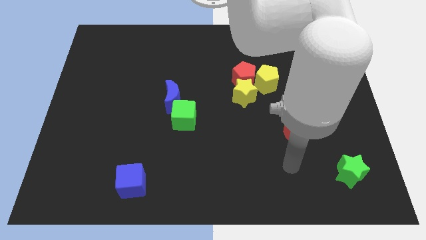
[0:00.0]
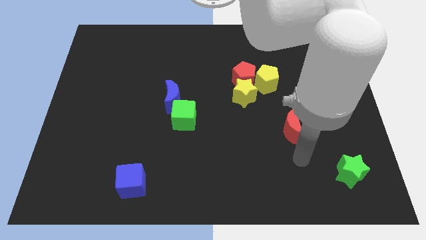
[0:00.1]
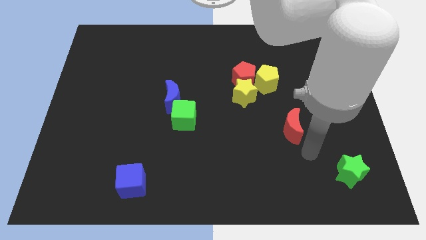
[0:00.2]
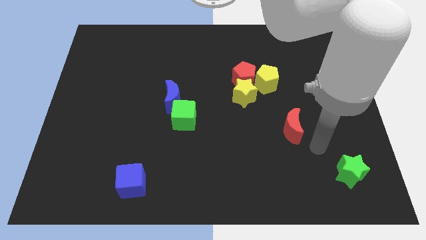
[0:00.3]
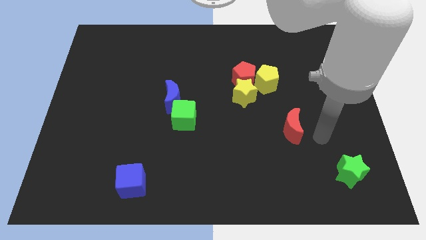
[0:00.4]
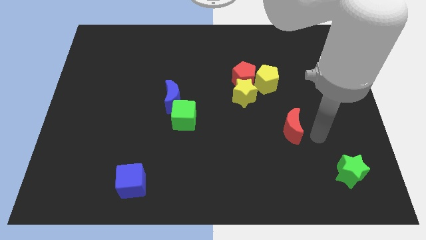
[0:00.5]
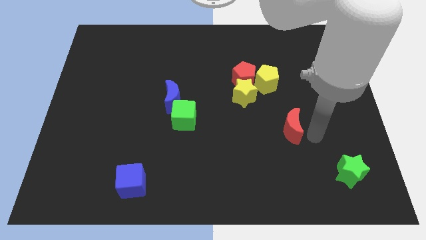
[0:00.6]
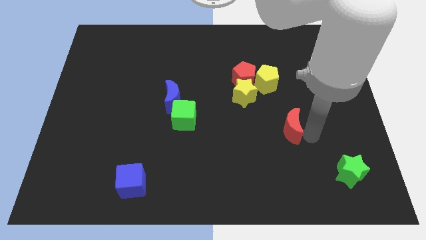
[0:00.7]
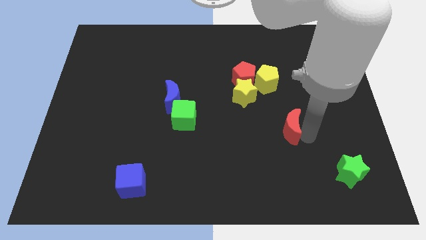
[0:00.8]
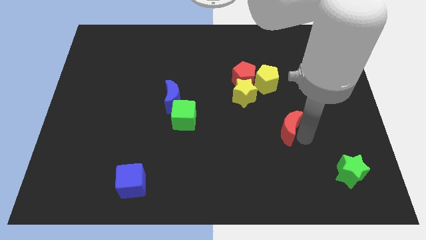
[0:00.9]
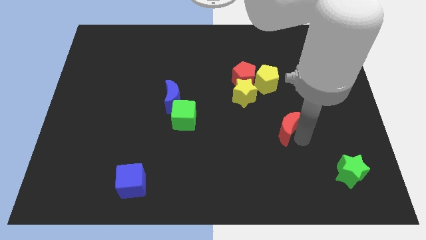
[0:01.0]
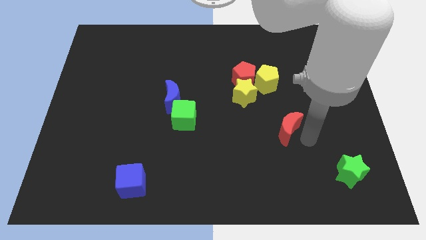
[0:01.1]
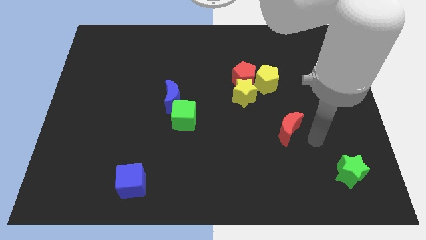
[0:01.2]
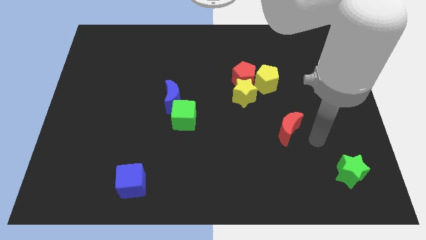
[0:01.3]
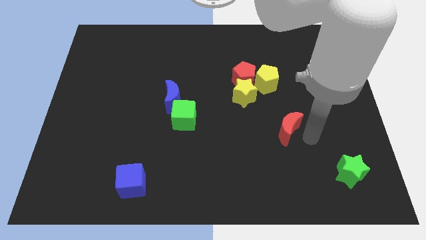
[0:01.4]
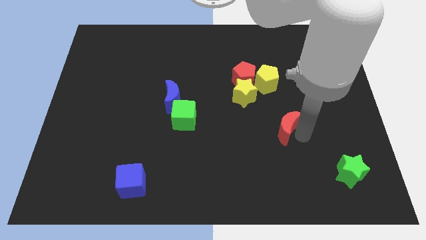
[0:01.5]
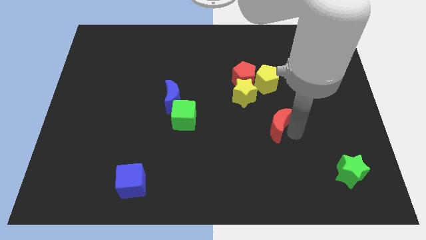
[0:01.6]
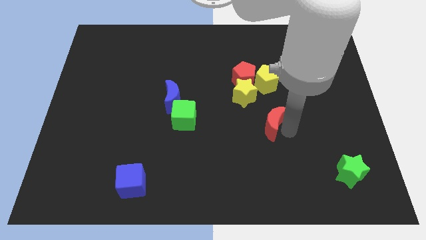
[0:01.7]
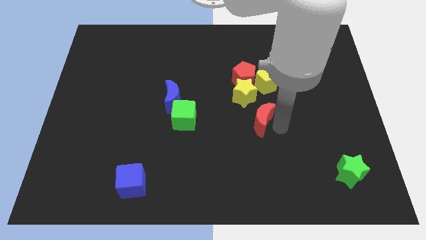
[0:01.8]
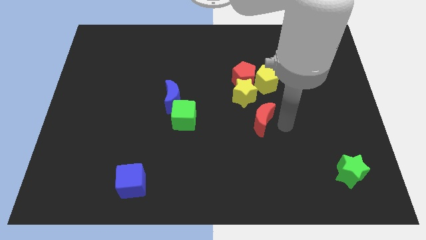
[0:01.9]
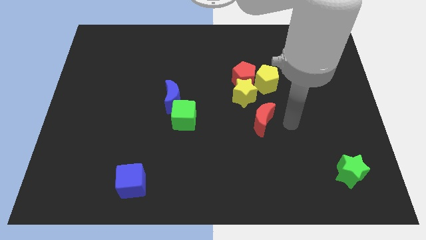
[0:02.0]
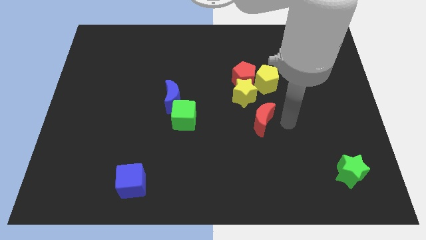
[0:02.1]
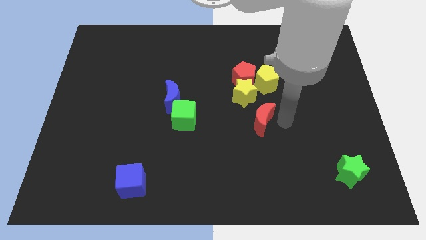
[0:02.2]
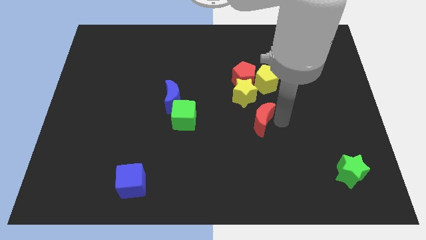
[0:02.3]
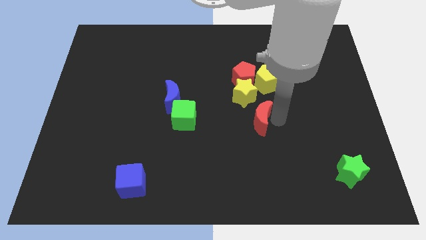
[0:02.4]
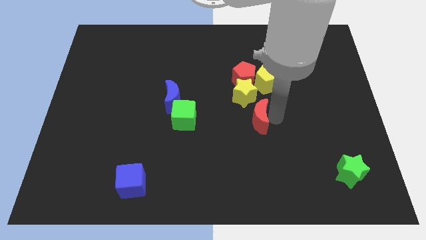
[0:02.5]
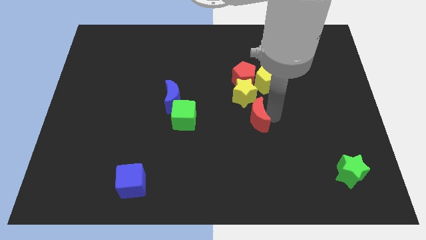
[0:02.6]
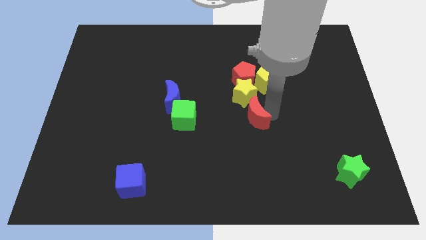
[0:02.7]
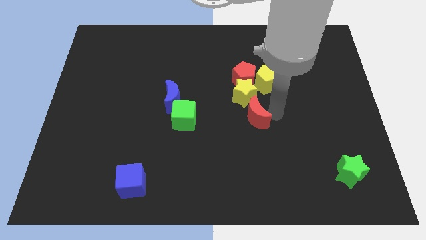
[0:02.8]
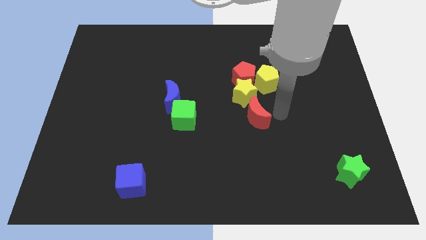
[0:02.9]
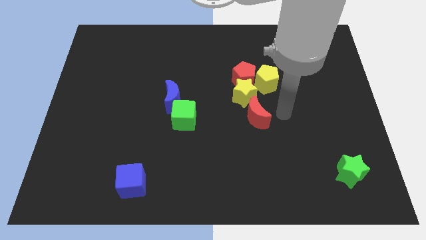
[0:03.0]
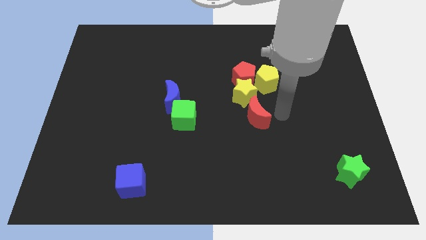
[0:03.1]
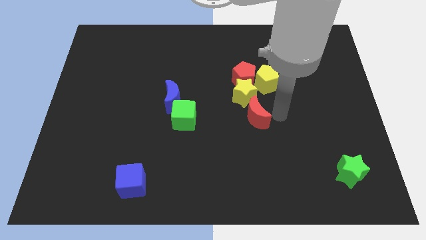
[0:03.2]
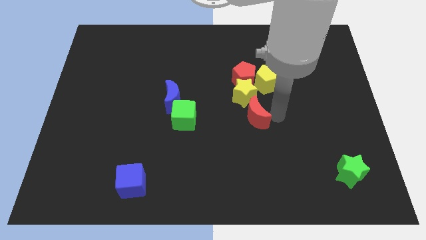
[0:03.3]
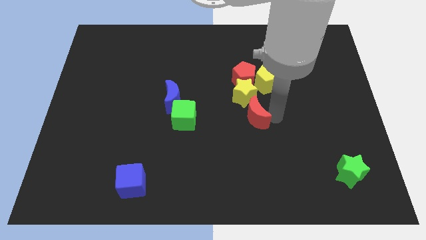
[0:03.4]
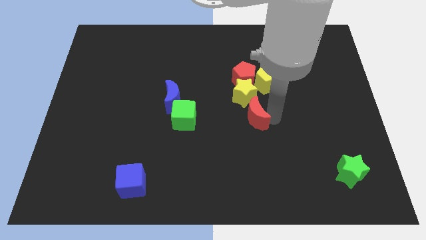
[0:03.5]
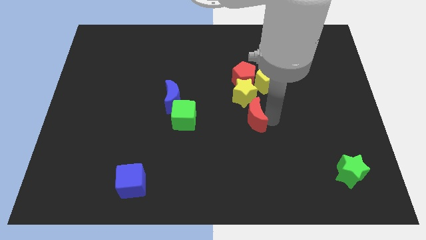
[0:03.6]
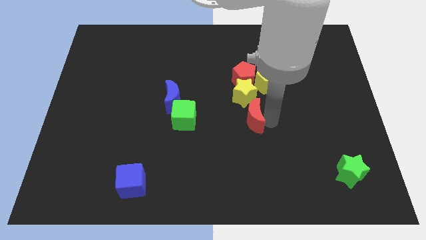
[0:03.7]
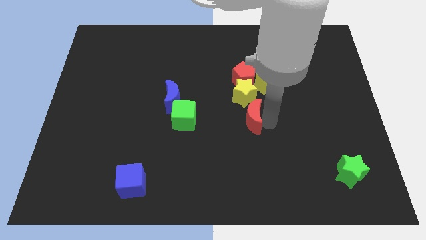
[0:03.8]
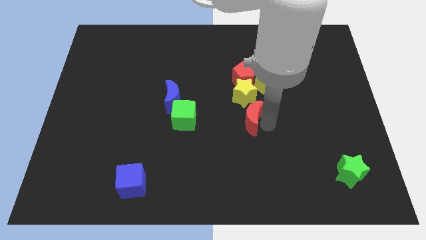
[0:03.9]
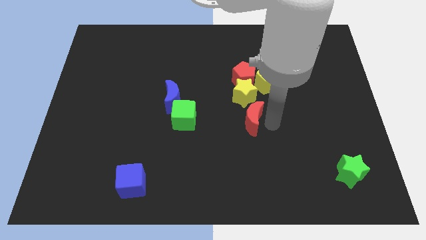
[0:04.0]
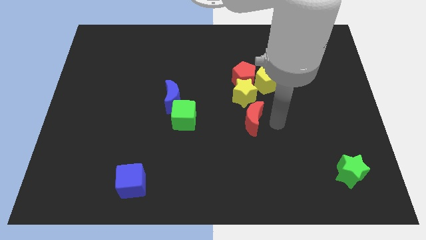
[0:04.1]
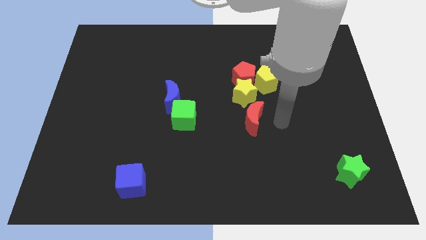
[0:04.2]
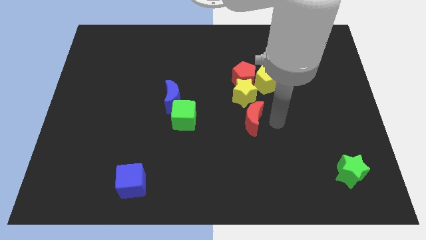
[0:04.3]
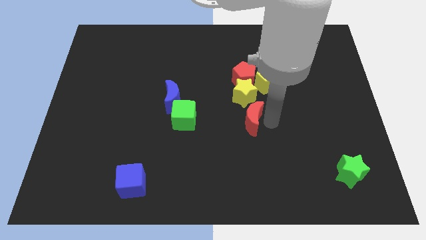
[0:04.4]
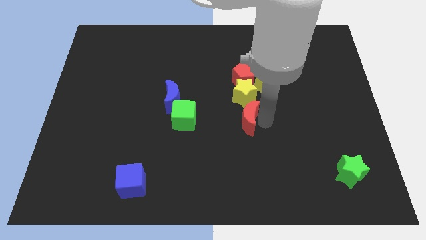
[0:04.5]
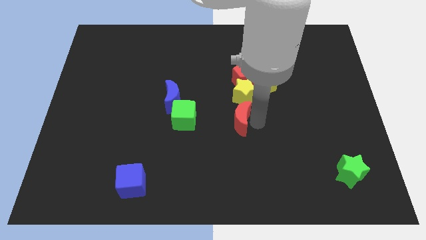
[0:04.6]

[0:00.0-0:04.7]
push the red moon diagonally down and to the left of the yellow star

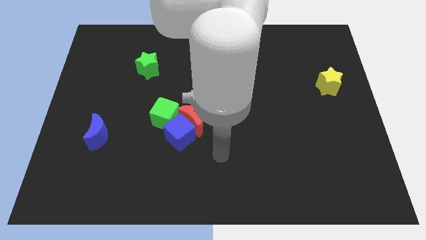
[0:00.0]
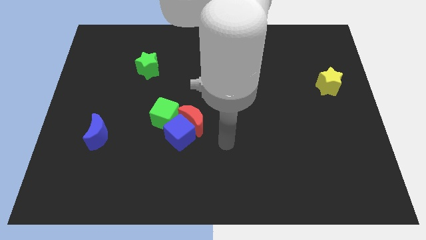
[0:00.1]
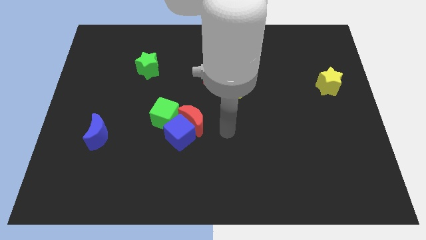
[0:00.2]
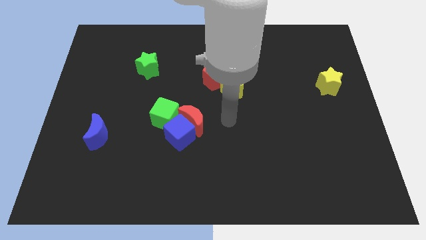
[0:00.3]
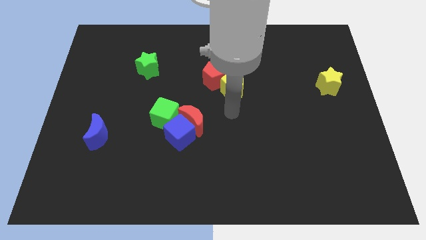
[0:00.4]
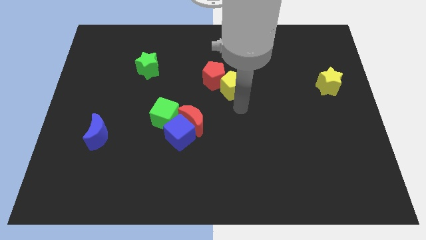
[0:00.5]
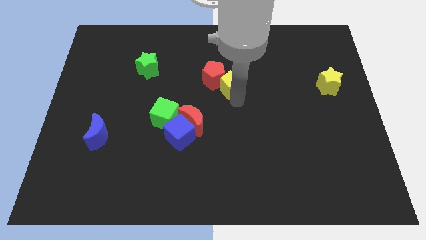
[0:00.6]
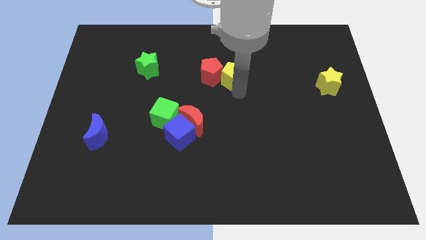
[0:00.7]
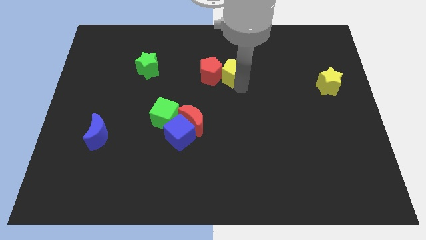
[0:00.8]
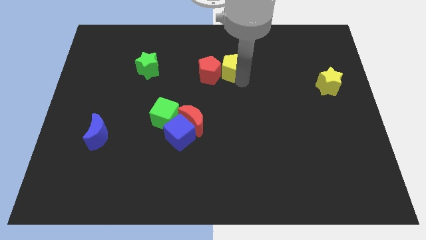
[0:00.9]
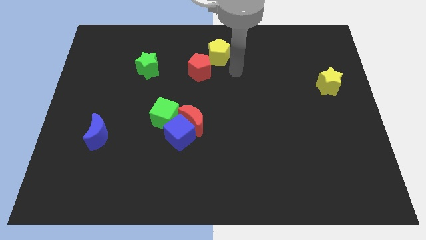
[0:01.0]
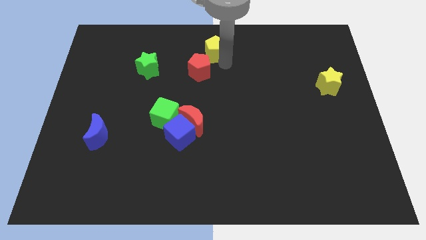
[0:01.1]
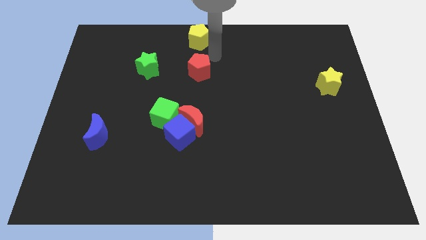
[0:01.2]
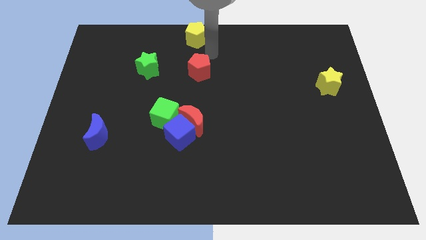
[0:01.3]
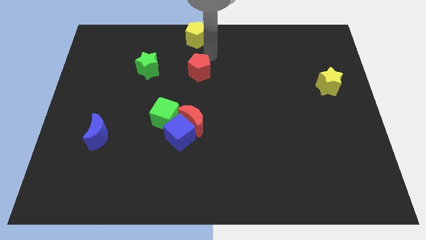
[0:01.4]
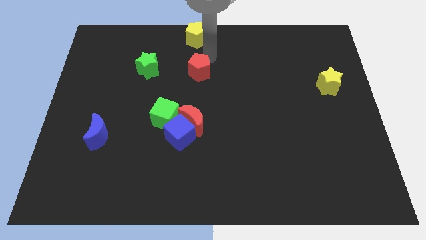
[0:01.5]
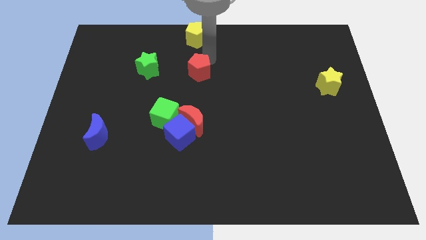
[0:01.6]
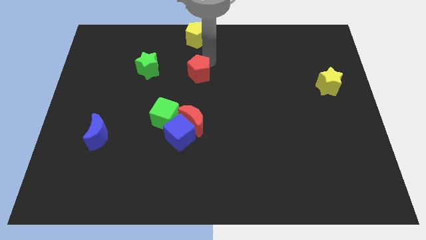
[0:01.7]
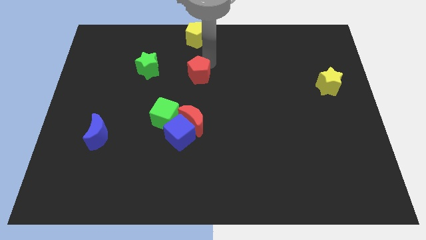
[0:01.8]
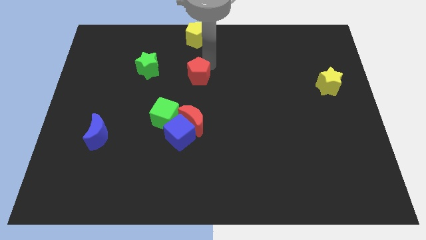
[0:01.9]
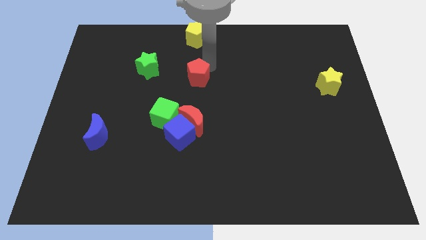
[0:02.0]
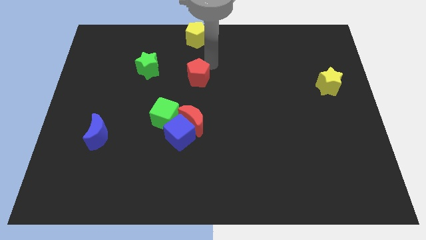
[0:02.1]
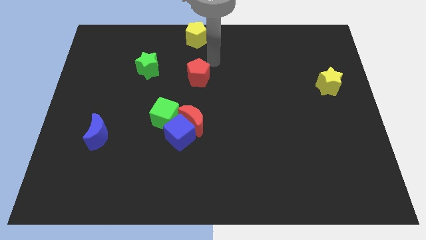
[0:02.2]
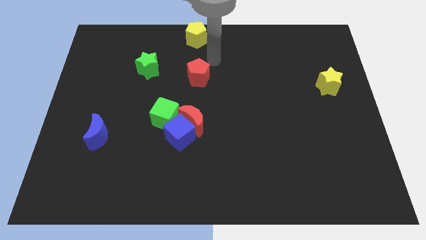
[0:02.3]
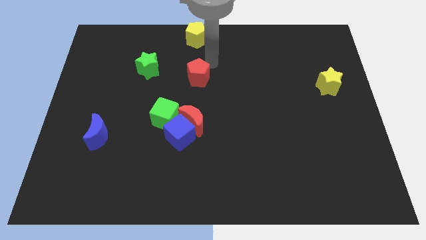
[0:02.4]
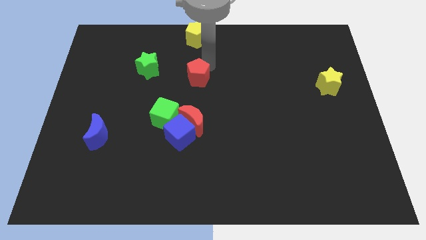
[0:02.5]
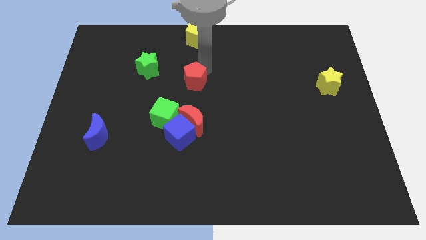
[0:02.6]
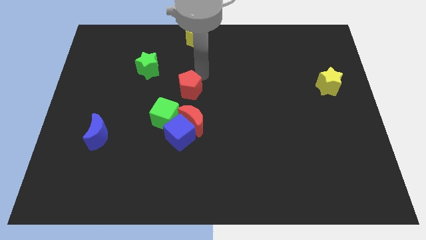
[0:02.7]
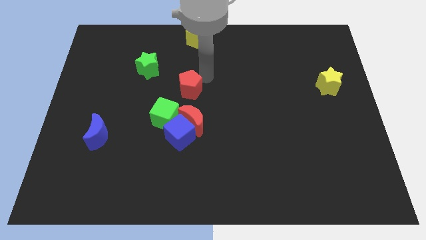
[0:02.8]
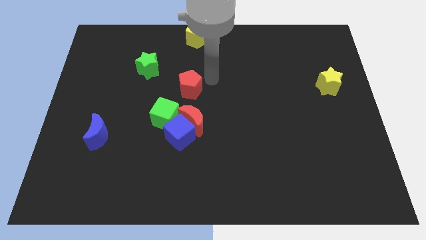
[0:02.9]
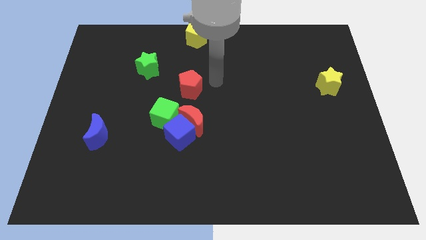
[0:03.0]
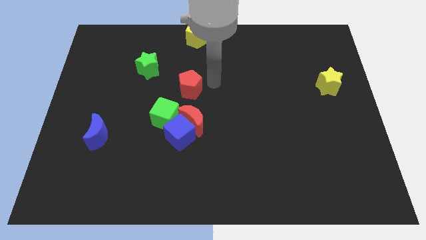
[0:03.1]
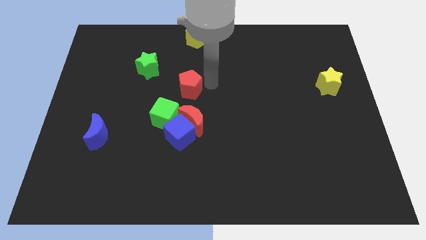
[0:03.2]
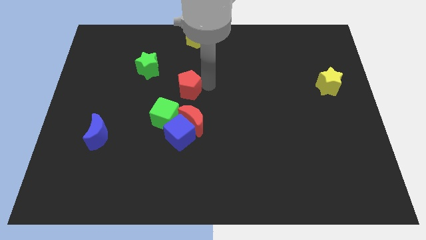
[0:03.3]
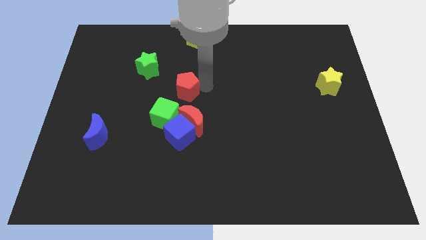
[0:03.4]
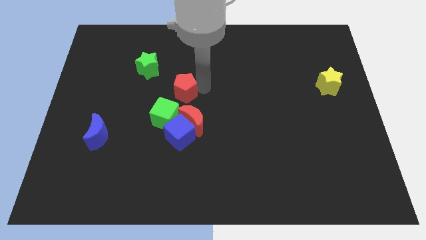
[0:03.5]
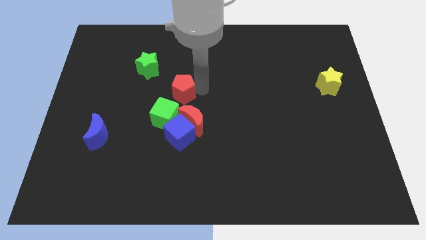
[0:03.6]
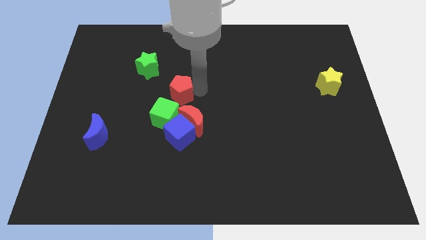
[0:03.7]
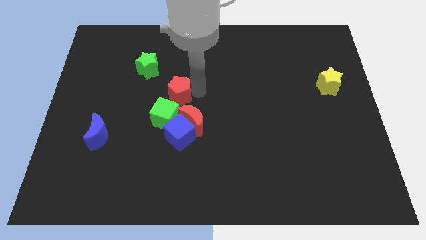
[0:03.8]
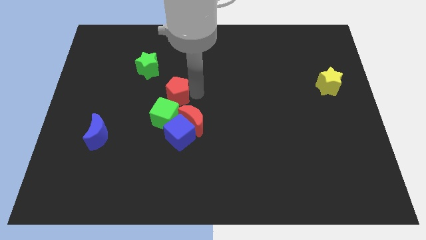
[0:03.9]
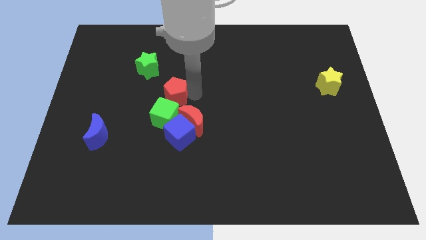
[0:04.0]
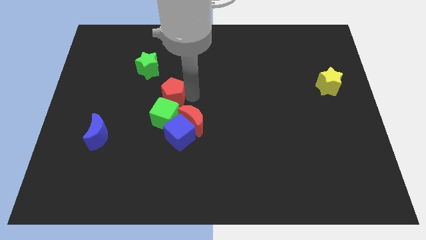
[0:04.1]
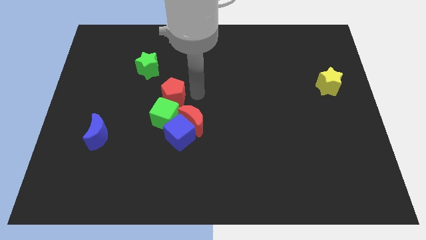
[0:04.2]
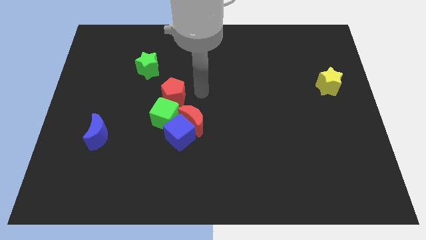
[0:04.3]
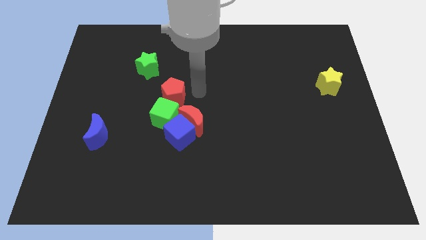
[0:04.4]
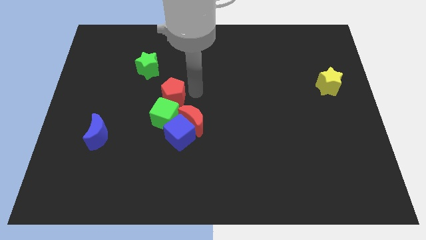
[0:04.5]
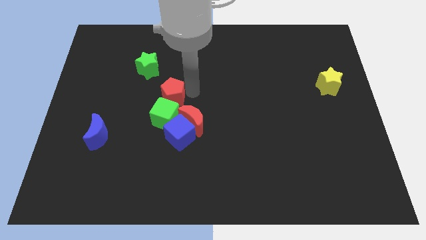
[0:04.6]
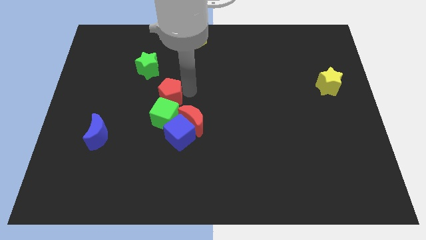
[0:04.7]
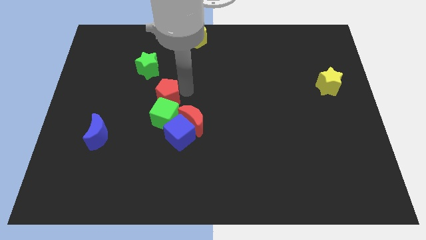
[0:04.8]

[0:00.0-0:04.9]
move the red pentagon diagonally up and to the left of the green cube
